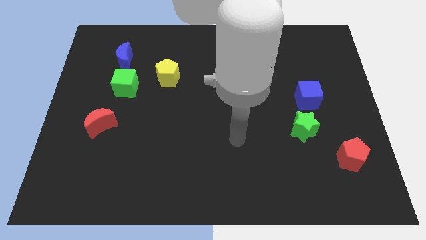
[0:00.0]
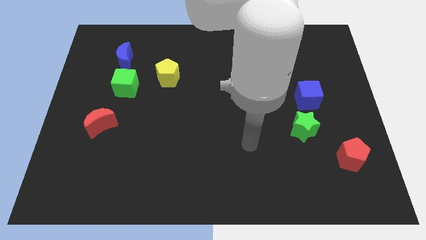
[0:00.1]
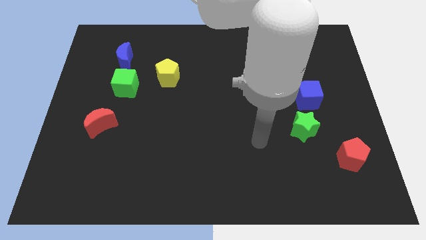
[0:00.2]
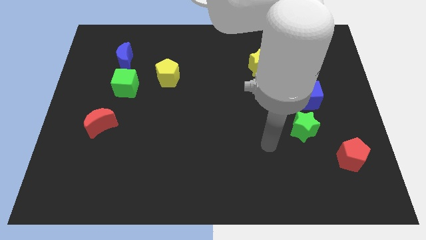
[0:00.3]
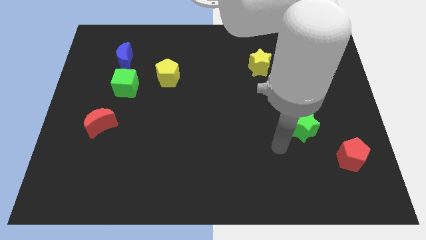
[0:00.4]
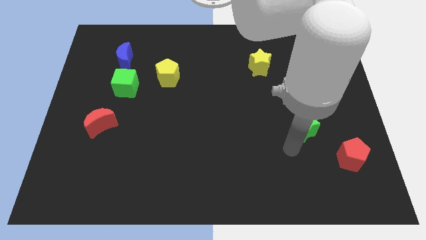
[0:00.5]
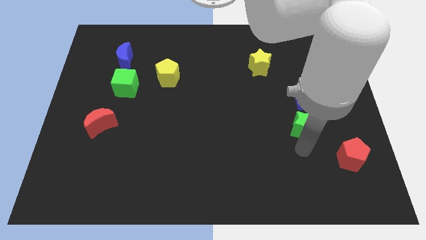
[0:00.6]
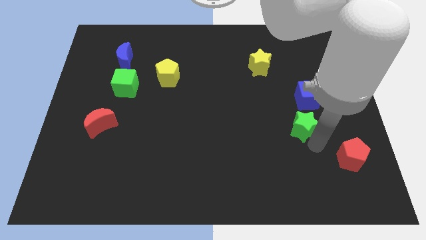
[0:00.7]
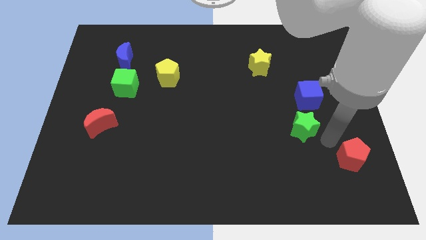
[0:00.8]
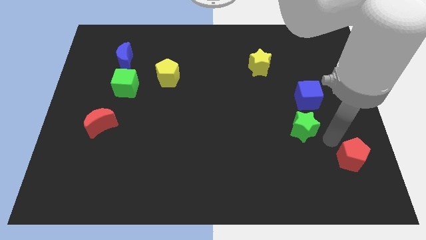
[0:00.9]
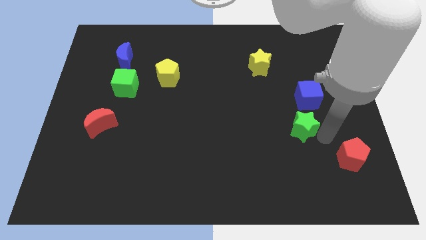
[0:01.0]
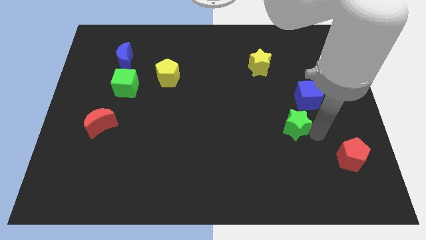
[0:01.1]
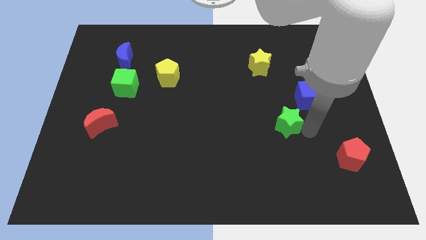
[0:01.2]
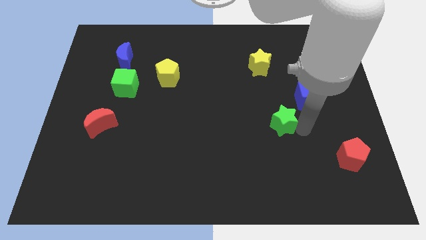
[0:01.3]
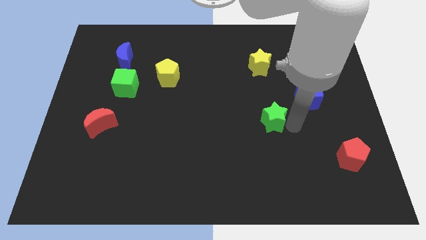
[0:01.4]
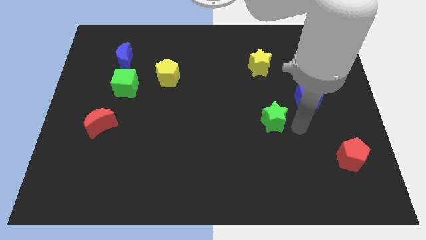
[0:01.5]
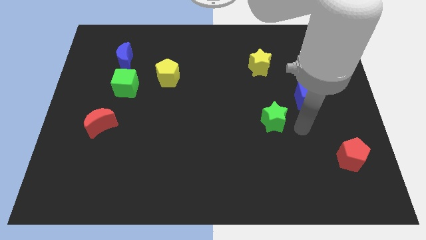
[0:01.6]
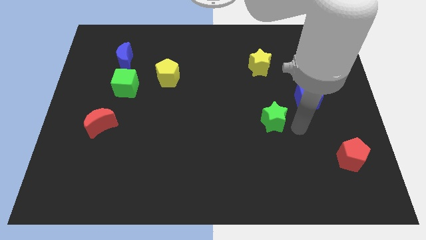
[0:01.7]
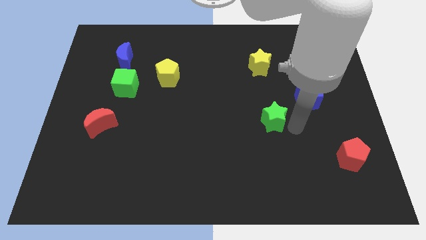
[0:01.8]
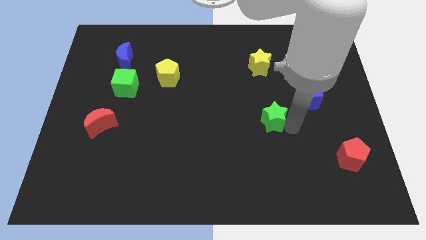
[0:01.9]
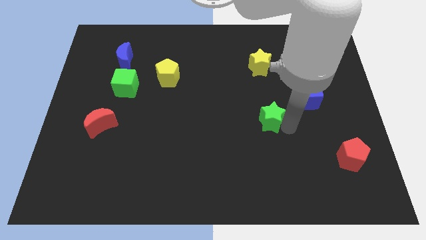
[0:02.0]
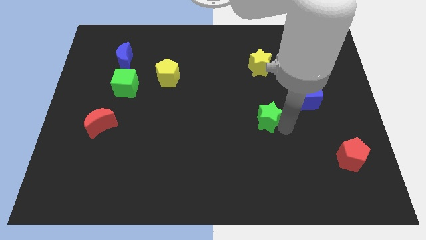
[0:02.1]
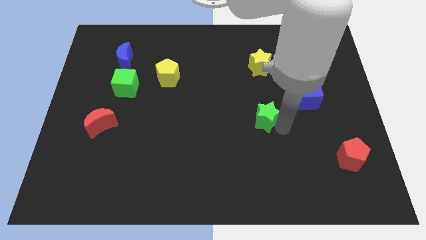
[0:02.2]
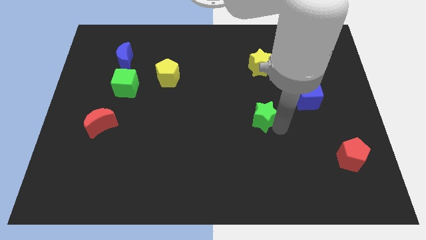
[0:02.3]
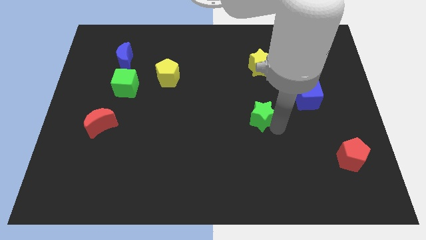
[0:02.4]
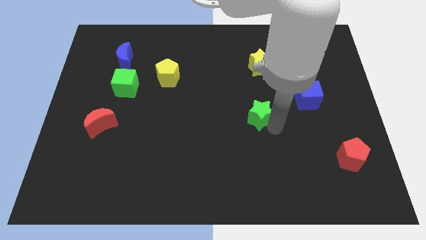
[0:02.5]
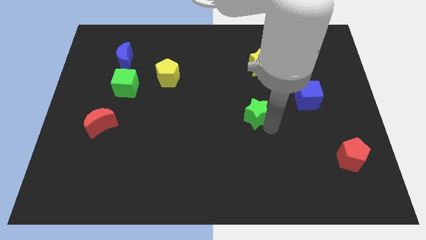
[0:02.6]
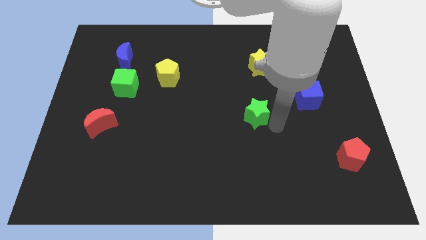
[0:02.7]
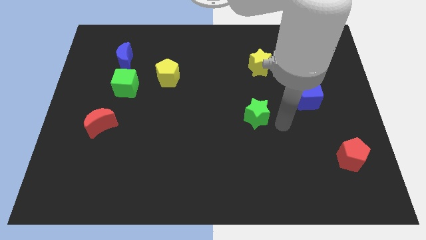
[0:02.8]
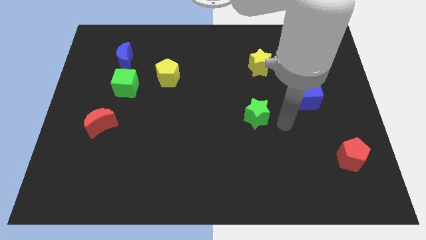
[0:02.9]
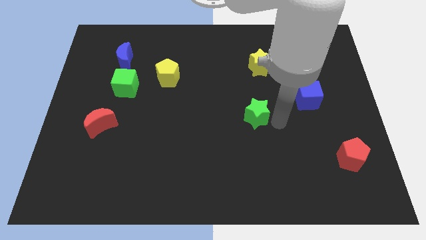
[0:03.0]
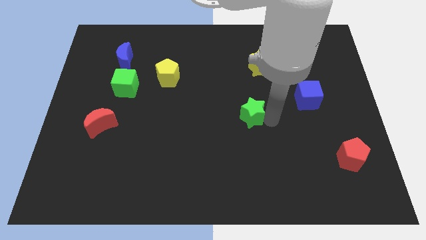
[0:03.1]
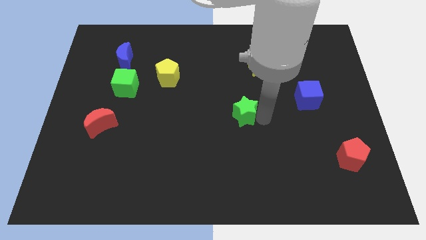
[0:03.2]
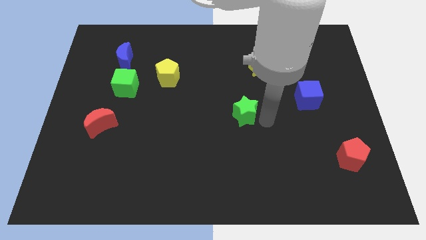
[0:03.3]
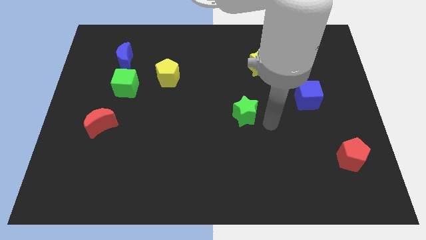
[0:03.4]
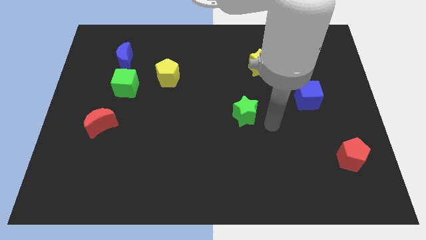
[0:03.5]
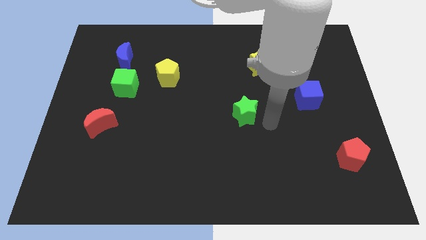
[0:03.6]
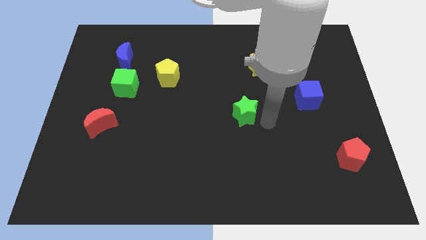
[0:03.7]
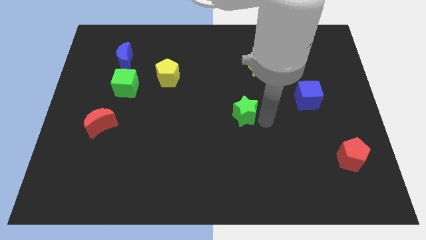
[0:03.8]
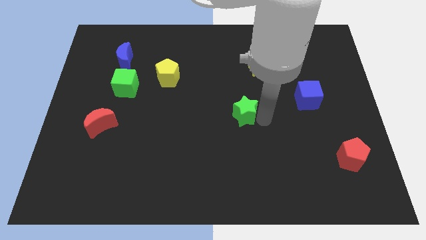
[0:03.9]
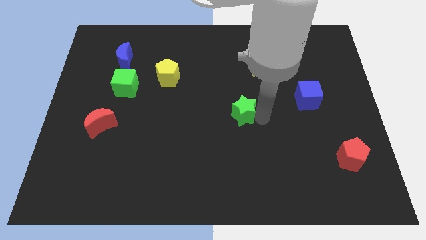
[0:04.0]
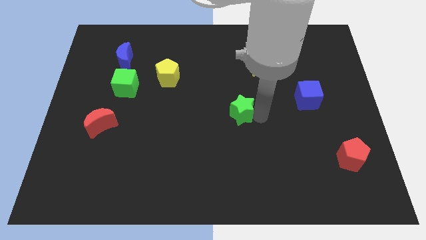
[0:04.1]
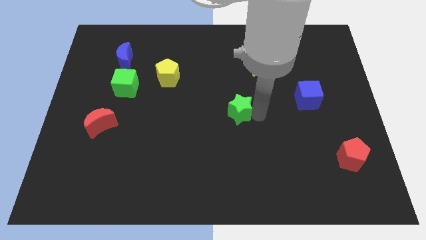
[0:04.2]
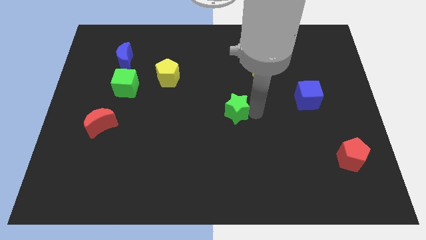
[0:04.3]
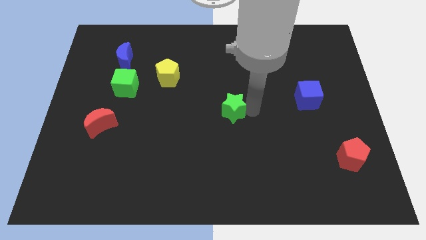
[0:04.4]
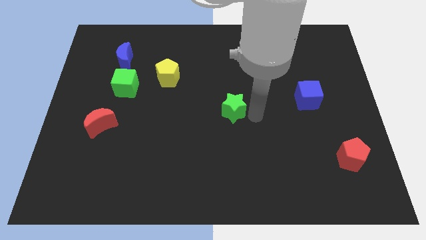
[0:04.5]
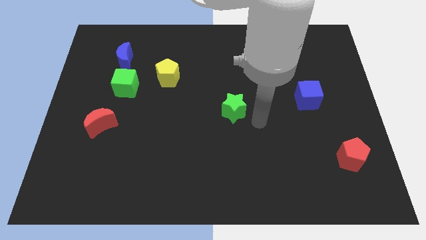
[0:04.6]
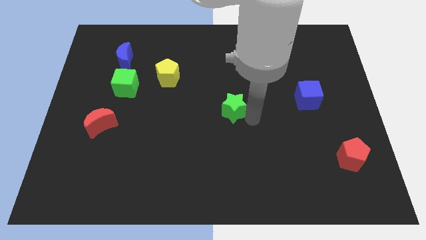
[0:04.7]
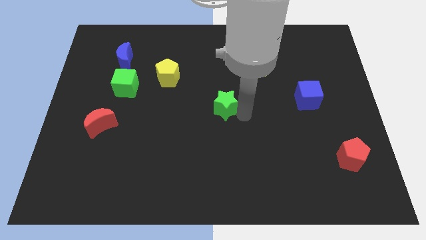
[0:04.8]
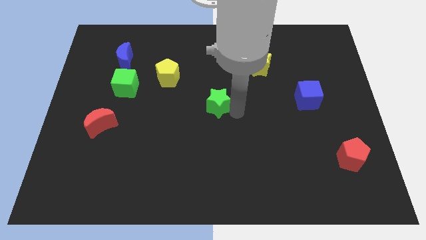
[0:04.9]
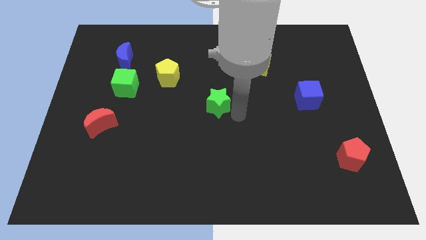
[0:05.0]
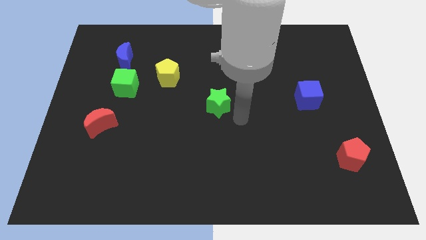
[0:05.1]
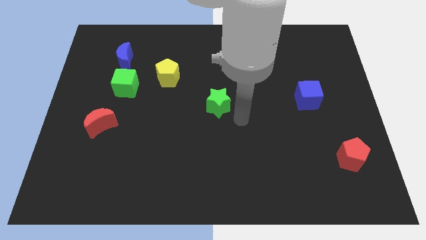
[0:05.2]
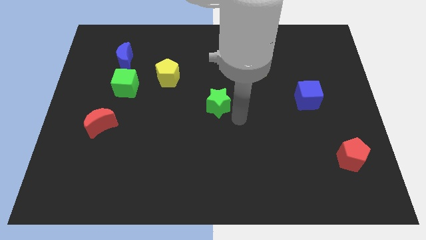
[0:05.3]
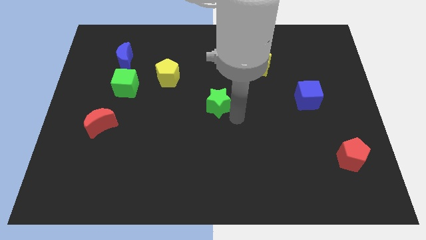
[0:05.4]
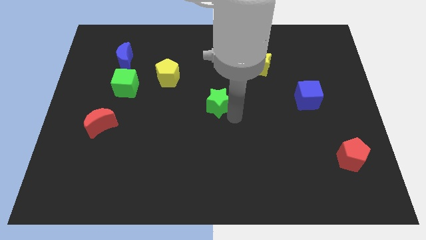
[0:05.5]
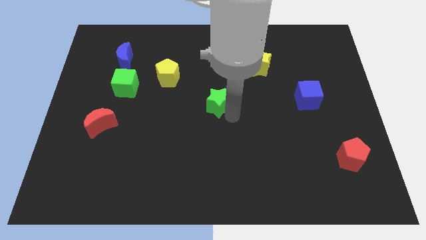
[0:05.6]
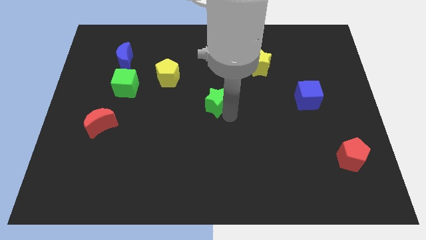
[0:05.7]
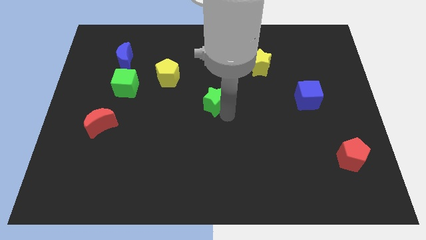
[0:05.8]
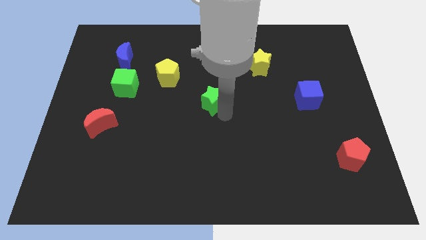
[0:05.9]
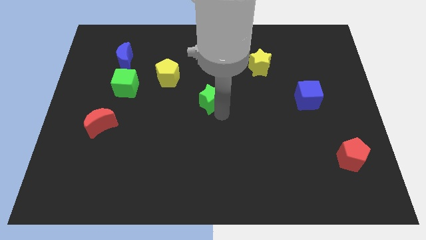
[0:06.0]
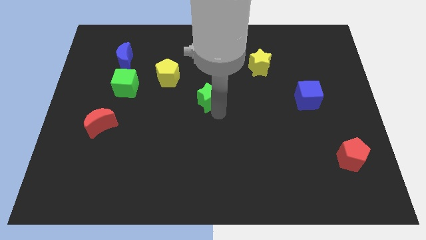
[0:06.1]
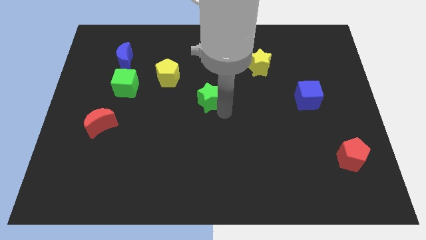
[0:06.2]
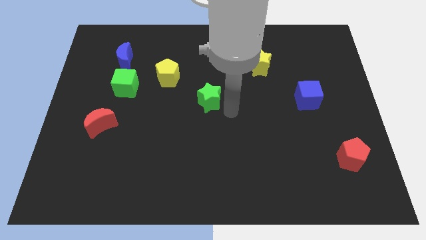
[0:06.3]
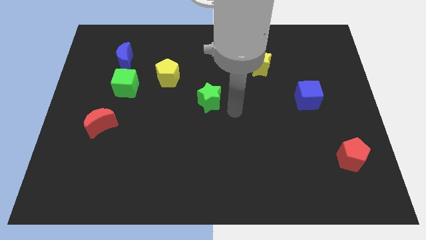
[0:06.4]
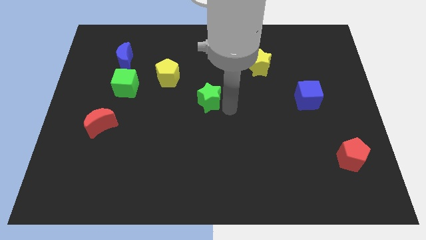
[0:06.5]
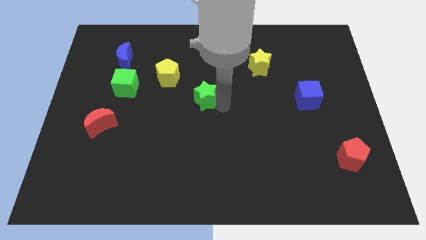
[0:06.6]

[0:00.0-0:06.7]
push the green star diagonally down and to the right of the yellow pentagon

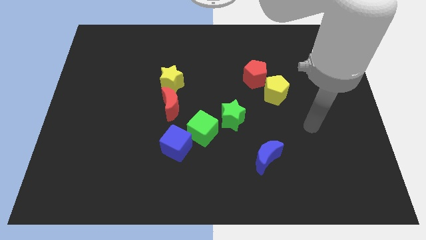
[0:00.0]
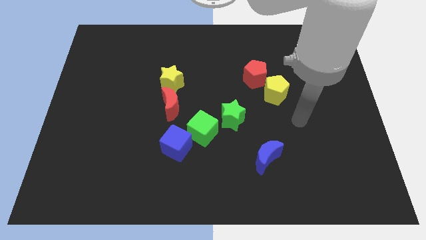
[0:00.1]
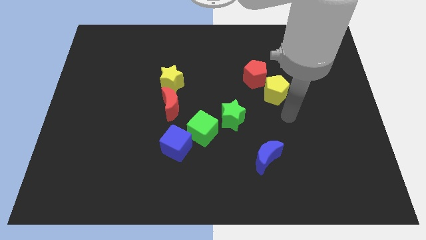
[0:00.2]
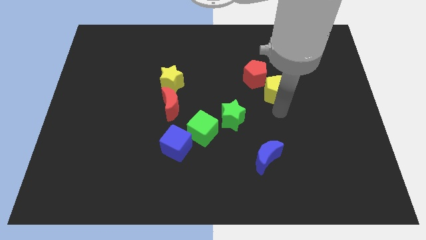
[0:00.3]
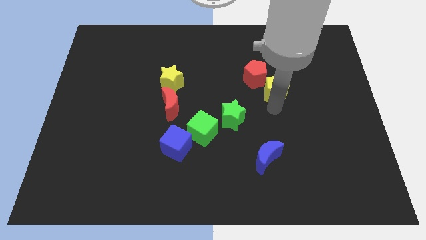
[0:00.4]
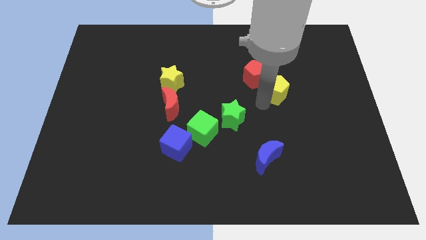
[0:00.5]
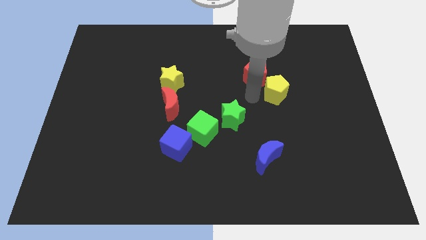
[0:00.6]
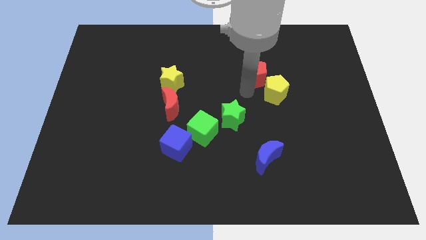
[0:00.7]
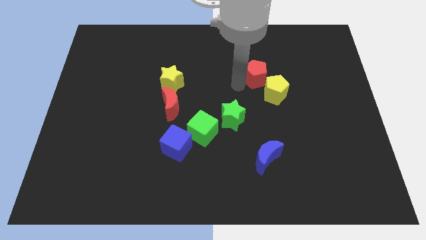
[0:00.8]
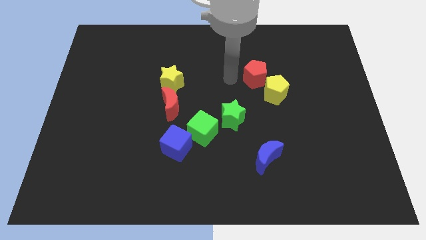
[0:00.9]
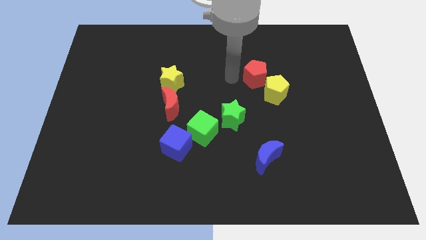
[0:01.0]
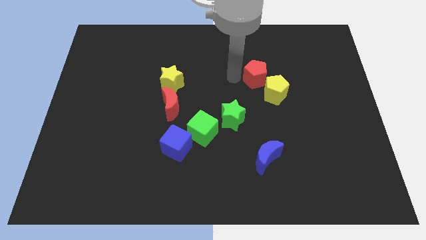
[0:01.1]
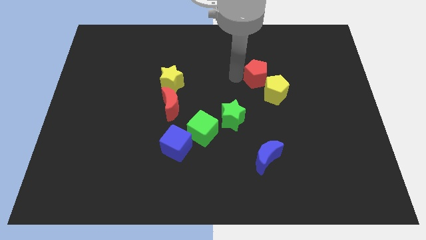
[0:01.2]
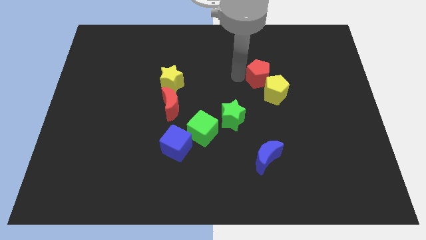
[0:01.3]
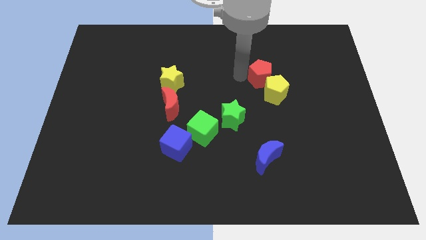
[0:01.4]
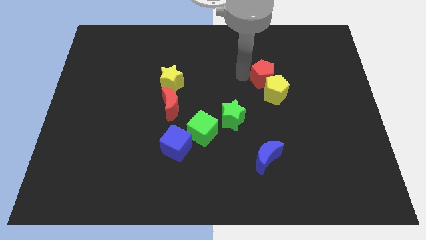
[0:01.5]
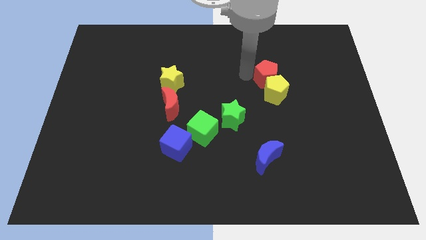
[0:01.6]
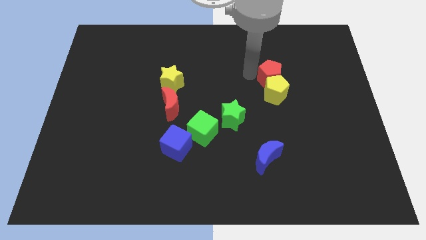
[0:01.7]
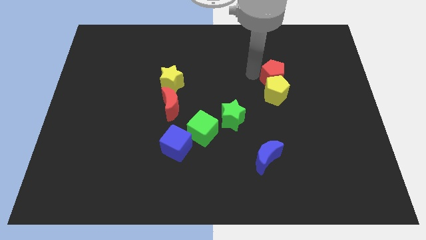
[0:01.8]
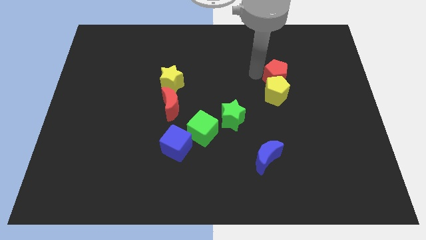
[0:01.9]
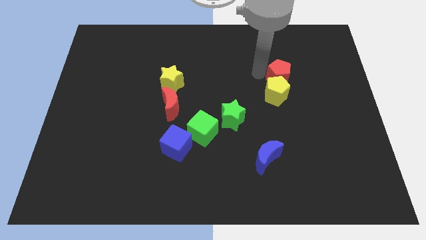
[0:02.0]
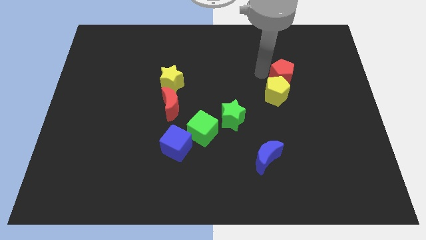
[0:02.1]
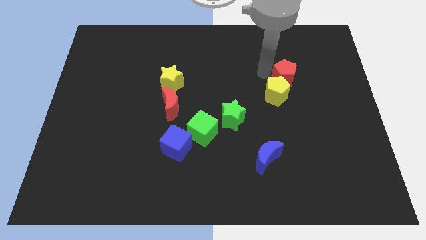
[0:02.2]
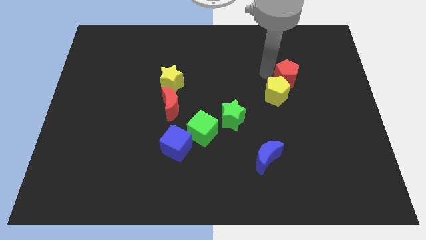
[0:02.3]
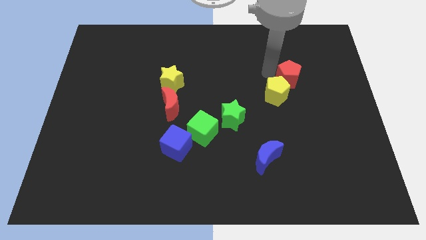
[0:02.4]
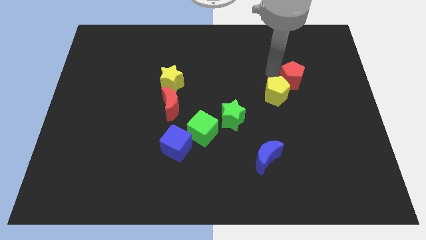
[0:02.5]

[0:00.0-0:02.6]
move the red pentagon to the right side of the yellow pentagon
